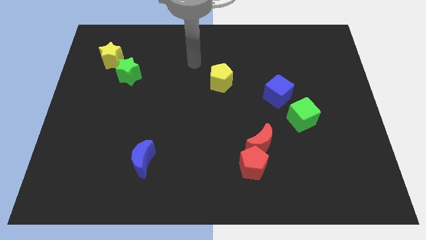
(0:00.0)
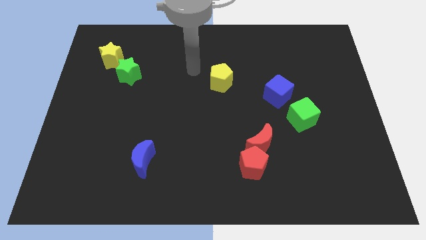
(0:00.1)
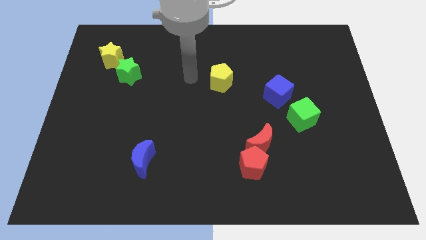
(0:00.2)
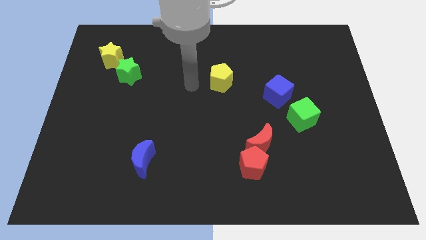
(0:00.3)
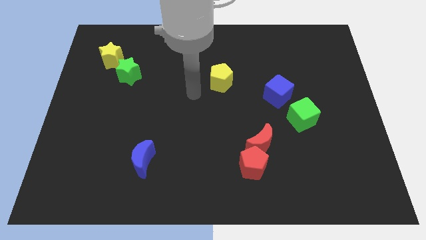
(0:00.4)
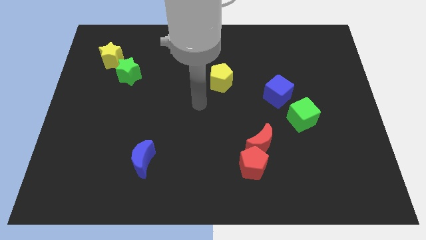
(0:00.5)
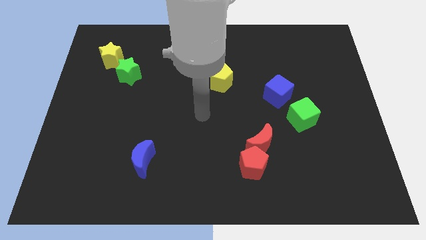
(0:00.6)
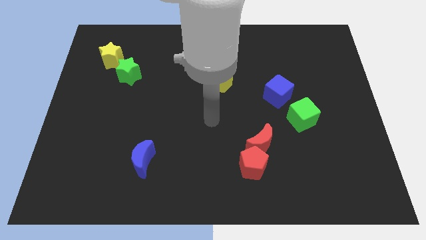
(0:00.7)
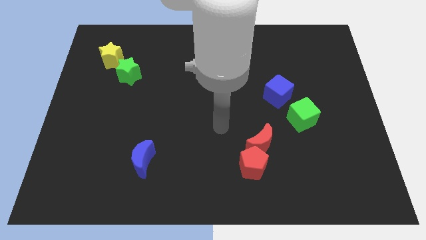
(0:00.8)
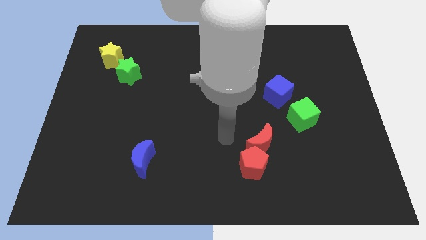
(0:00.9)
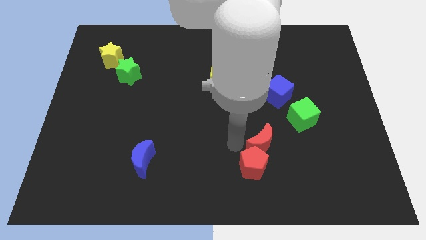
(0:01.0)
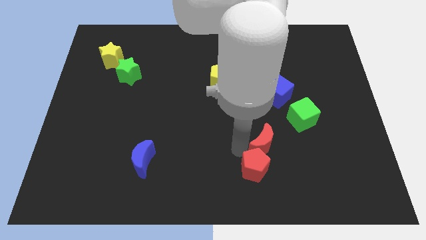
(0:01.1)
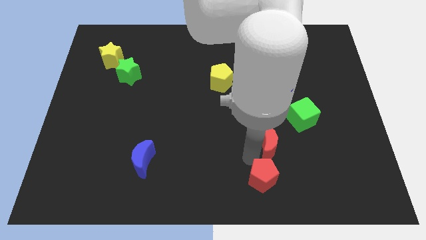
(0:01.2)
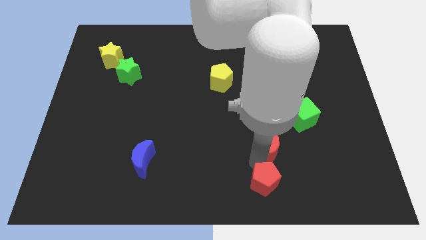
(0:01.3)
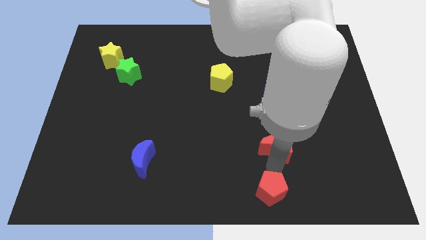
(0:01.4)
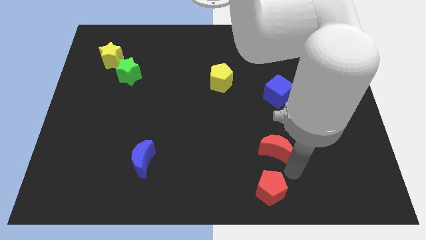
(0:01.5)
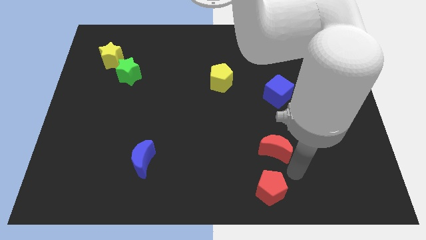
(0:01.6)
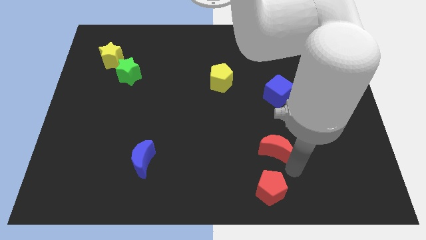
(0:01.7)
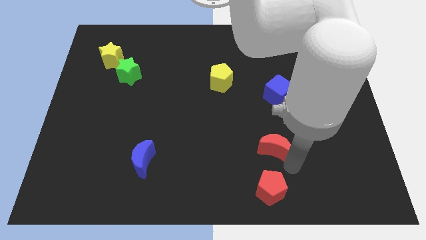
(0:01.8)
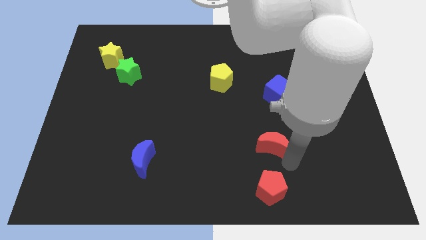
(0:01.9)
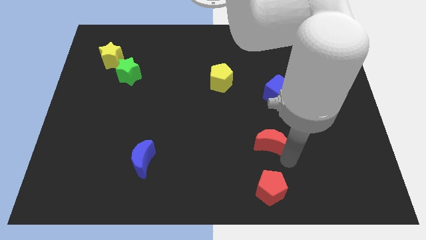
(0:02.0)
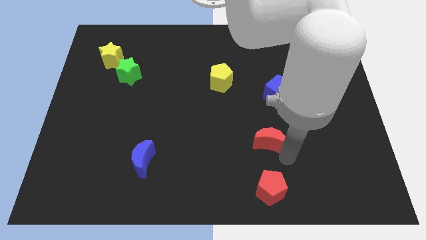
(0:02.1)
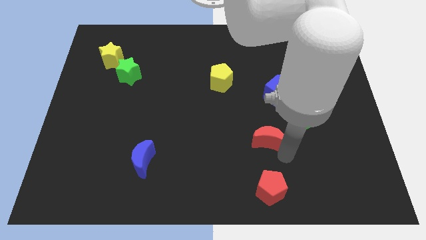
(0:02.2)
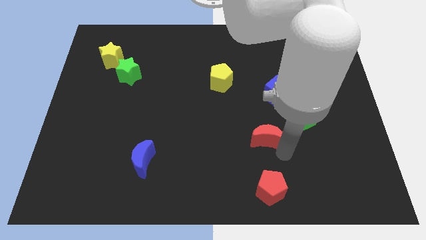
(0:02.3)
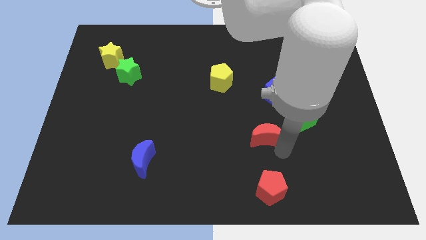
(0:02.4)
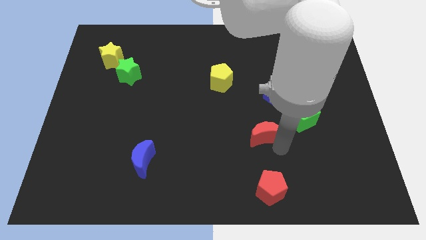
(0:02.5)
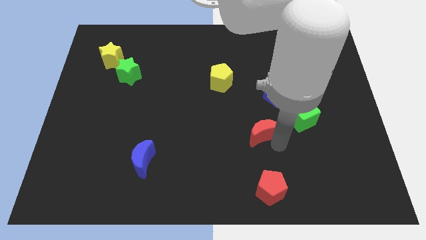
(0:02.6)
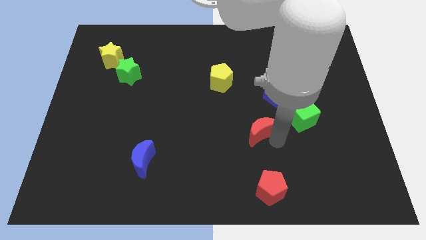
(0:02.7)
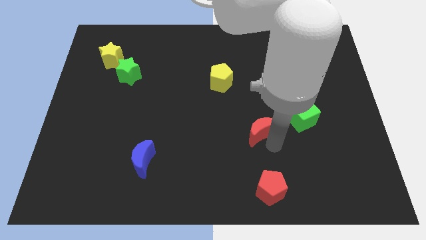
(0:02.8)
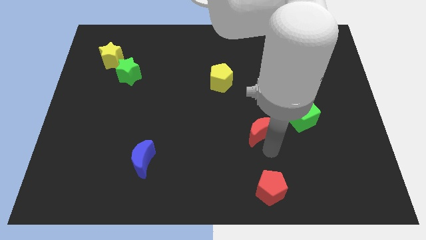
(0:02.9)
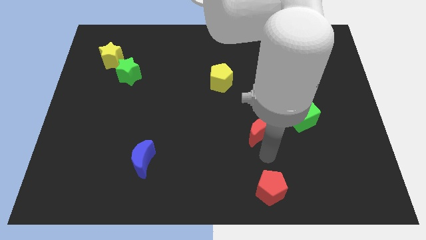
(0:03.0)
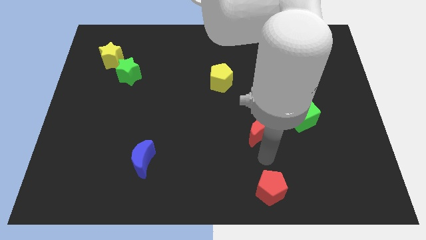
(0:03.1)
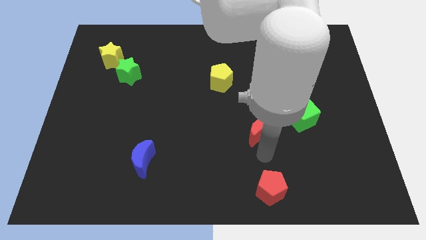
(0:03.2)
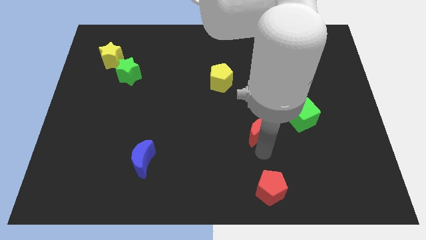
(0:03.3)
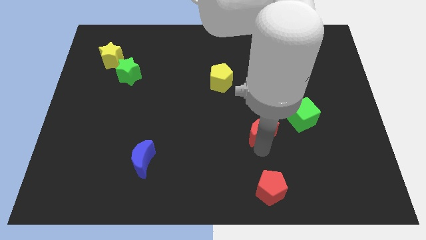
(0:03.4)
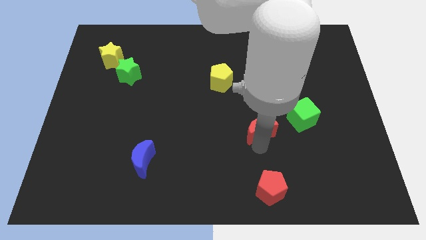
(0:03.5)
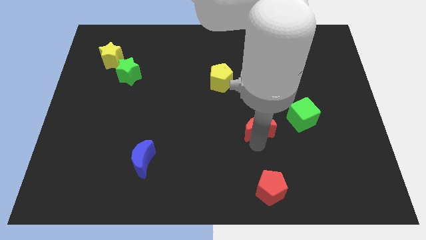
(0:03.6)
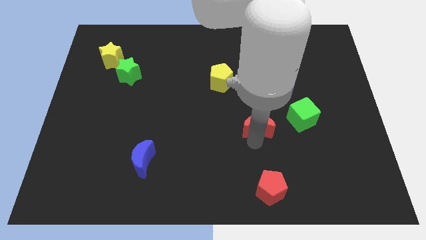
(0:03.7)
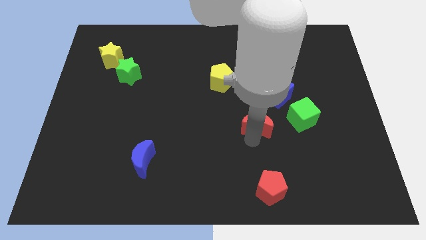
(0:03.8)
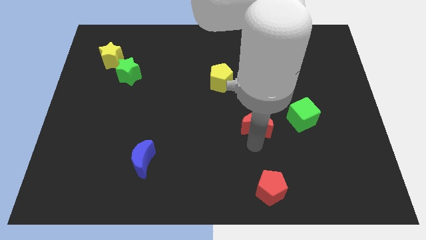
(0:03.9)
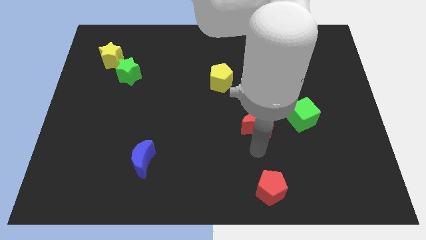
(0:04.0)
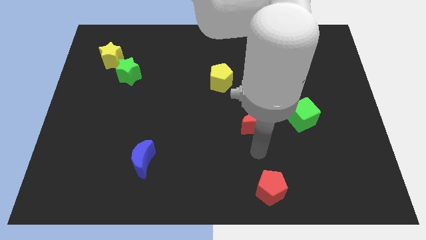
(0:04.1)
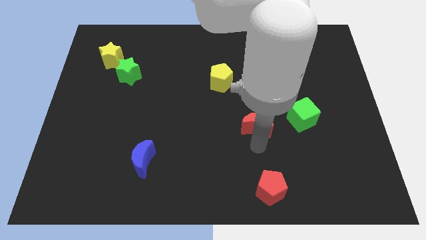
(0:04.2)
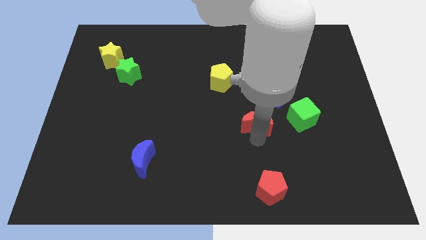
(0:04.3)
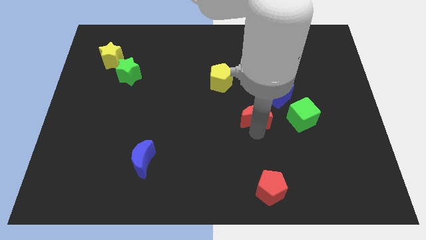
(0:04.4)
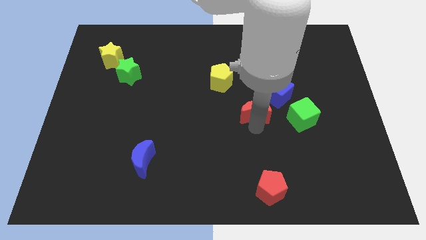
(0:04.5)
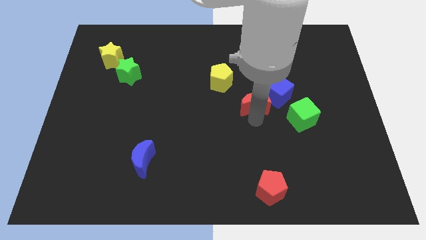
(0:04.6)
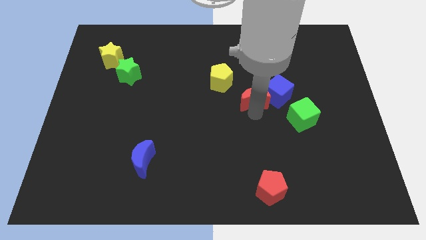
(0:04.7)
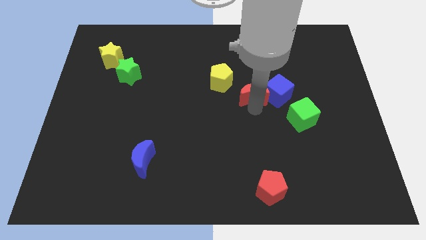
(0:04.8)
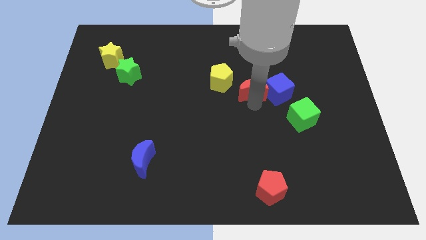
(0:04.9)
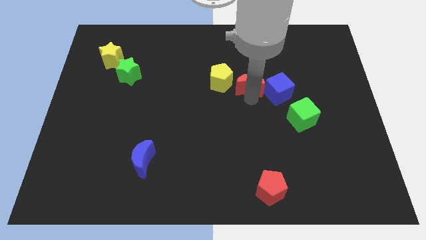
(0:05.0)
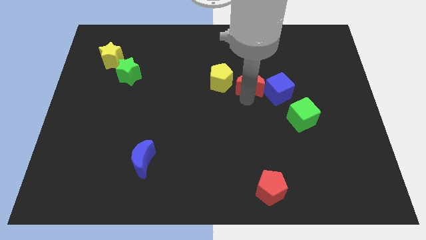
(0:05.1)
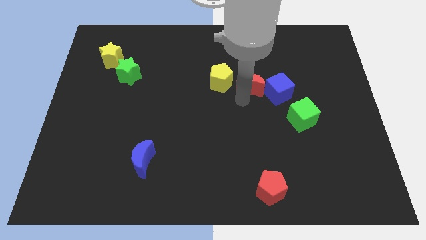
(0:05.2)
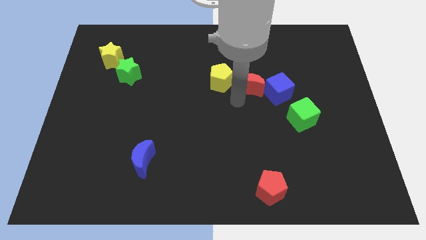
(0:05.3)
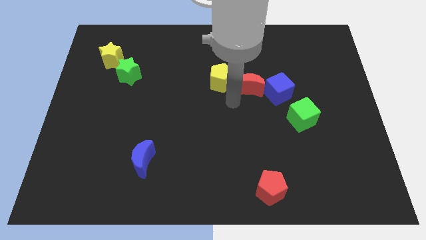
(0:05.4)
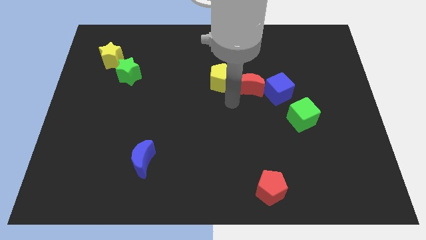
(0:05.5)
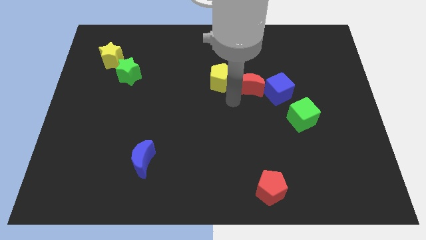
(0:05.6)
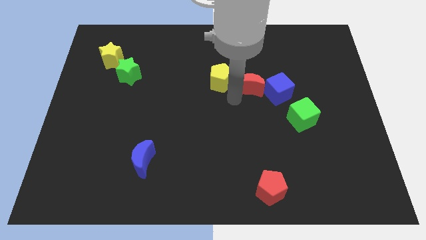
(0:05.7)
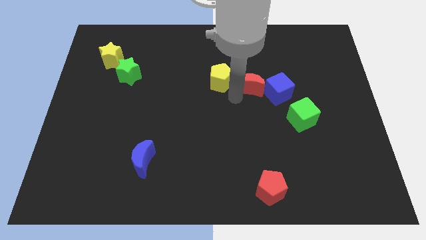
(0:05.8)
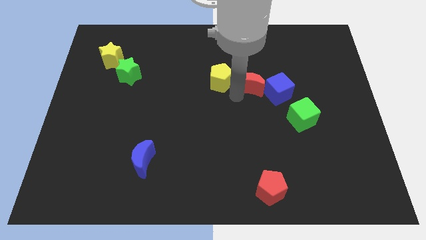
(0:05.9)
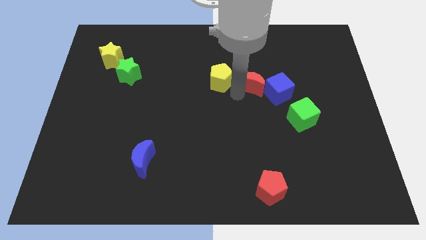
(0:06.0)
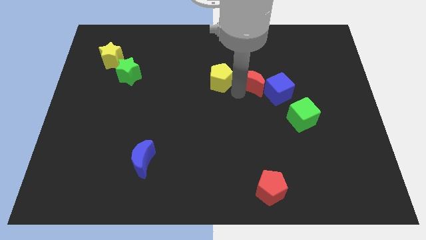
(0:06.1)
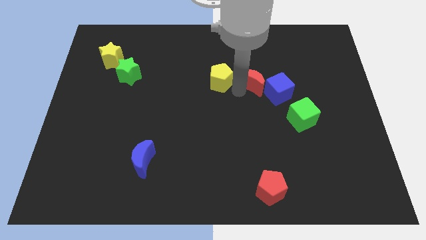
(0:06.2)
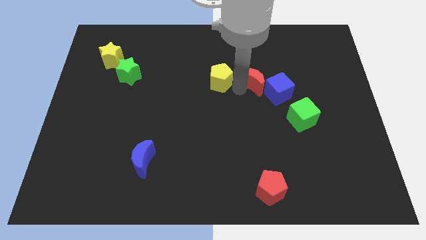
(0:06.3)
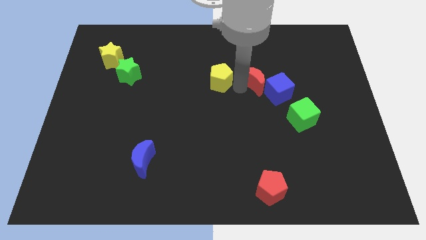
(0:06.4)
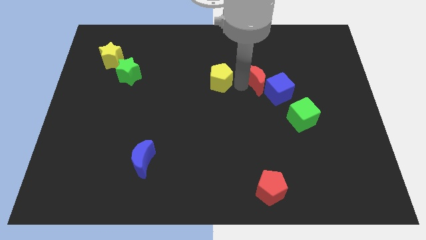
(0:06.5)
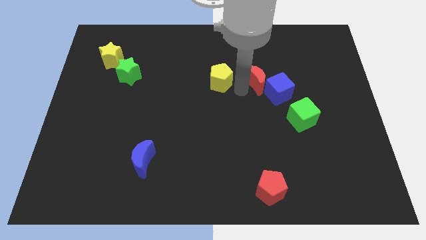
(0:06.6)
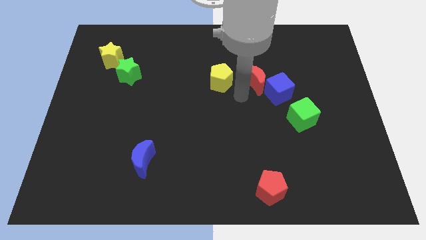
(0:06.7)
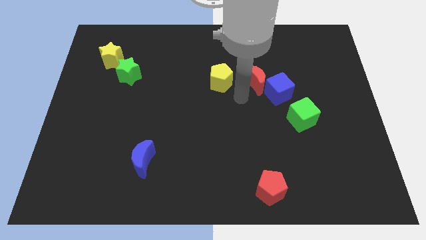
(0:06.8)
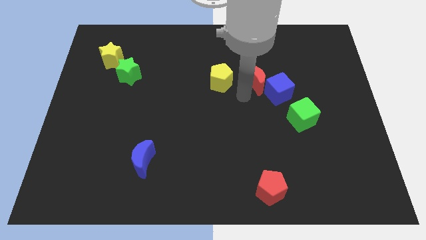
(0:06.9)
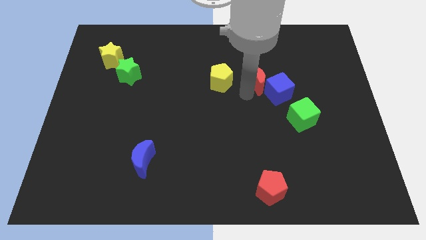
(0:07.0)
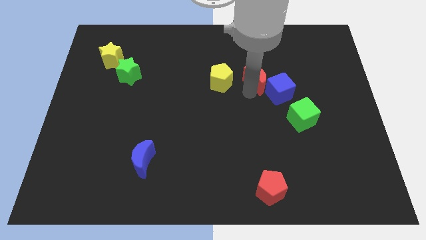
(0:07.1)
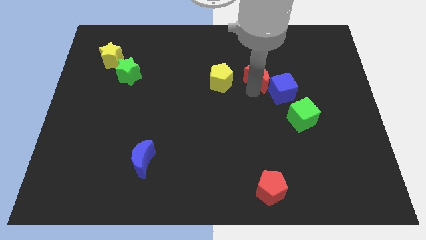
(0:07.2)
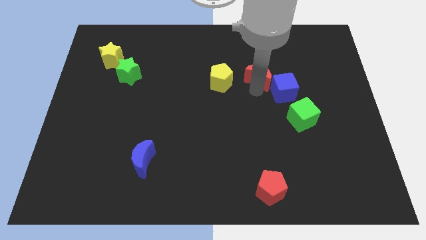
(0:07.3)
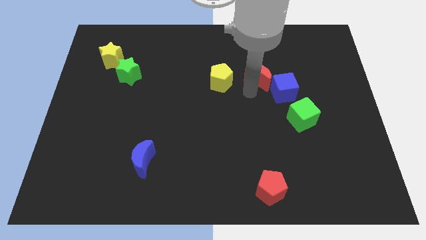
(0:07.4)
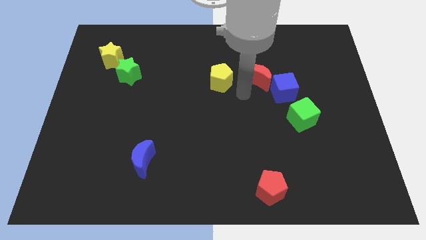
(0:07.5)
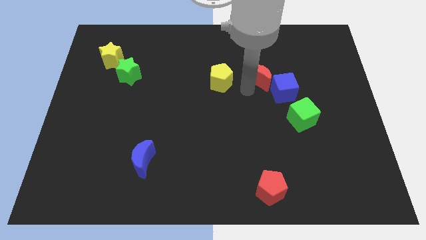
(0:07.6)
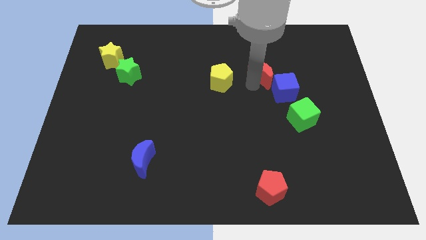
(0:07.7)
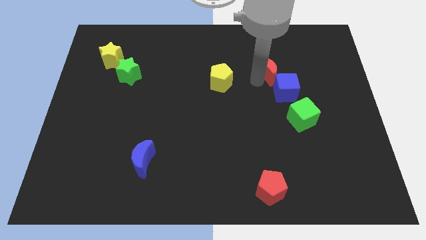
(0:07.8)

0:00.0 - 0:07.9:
push the red moon above the blue cube

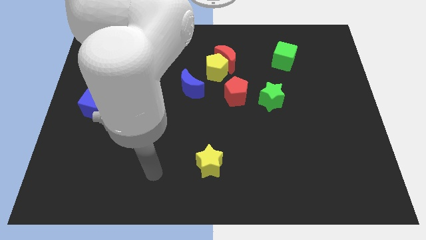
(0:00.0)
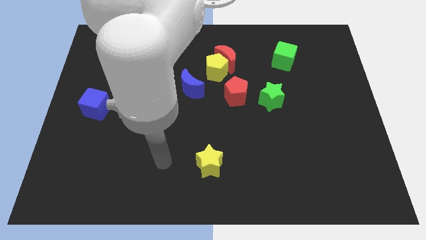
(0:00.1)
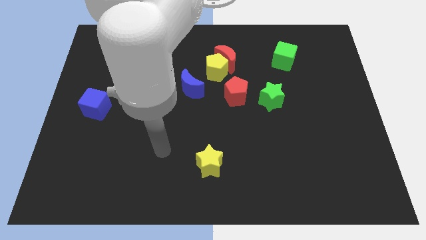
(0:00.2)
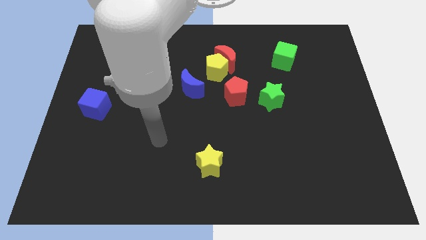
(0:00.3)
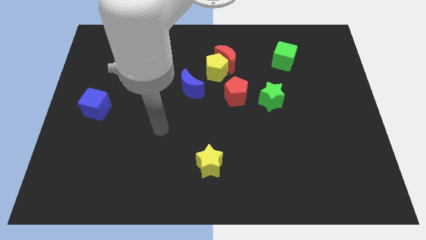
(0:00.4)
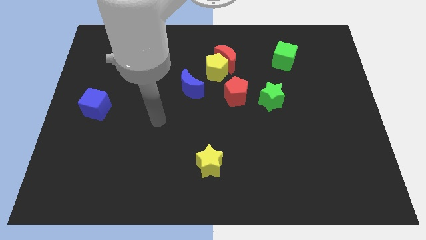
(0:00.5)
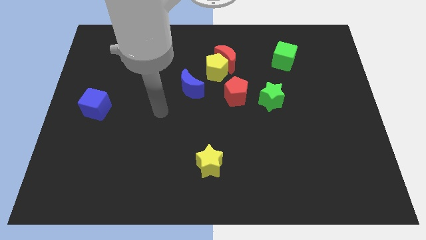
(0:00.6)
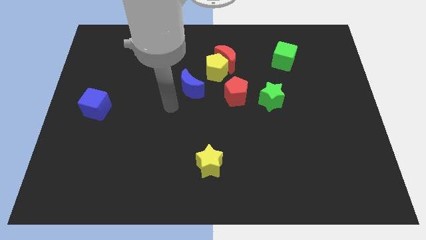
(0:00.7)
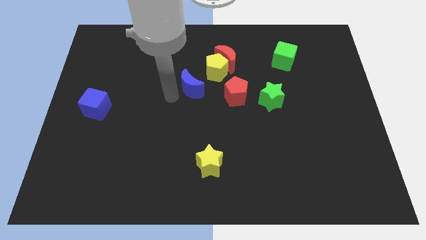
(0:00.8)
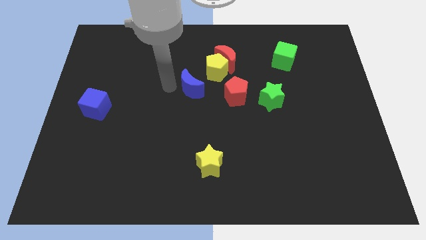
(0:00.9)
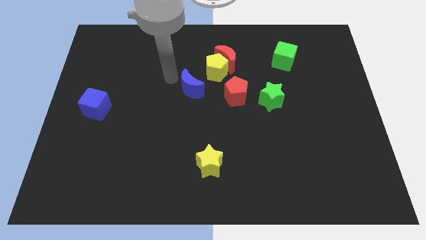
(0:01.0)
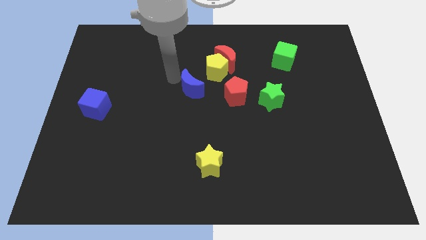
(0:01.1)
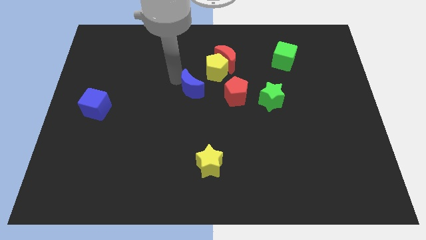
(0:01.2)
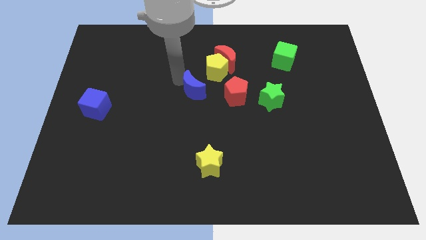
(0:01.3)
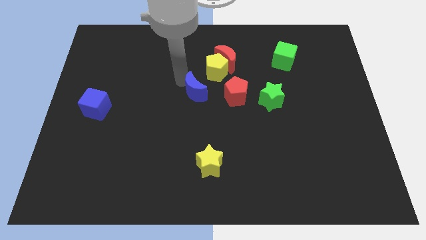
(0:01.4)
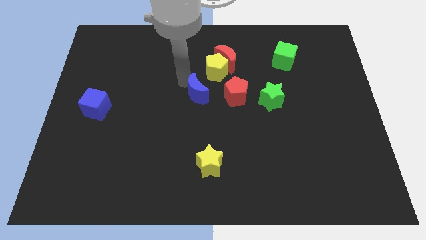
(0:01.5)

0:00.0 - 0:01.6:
slide the blue moon below the yellow pentagon
